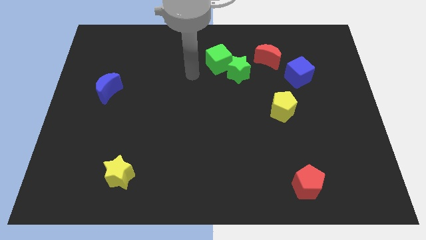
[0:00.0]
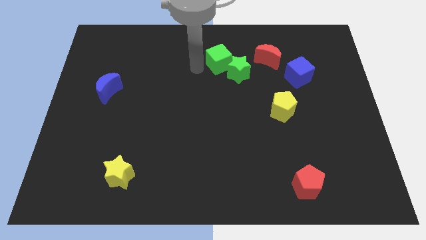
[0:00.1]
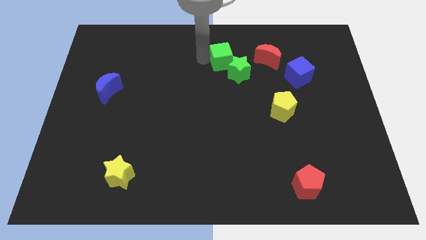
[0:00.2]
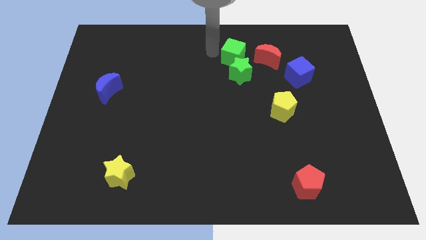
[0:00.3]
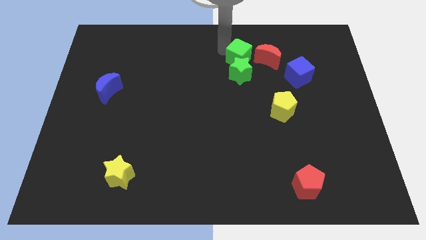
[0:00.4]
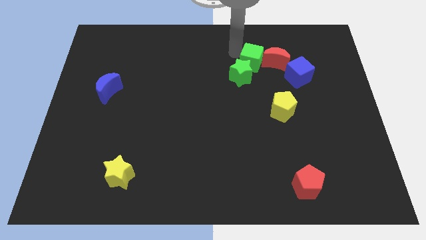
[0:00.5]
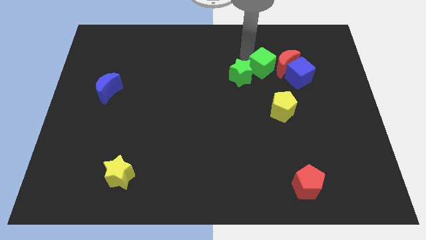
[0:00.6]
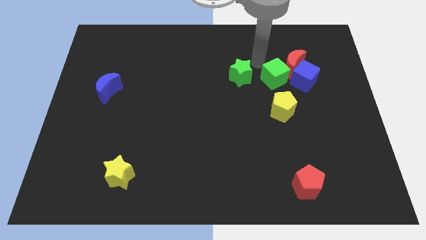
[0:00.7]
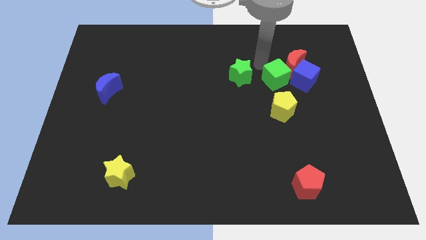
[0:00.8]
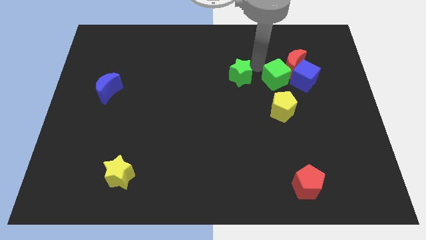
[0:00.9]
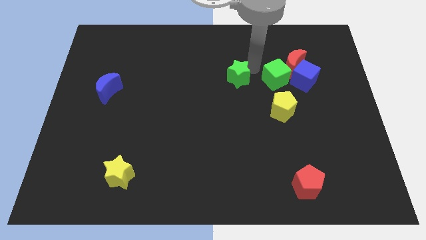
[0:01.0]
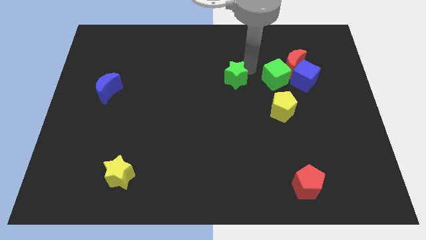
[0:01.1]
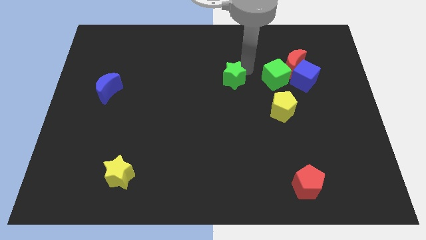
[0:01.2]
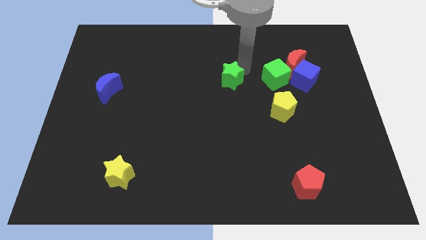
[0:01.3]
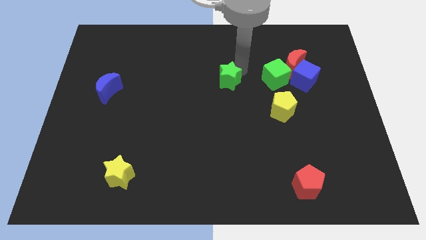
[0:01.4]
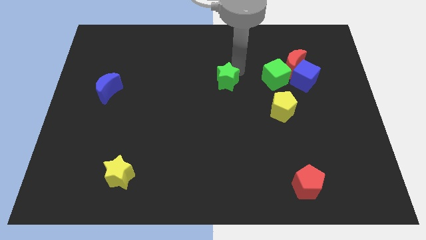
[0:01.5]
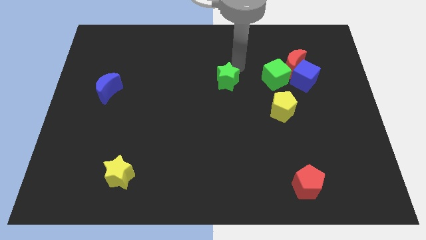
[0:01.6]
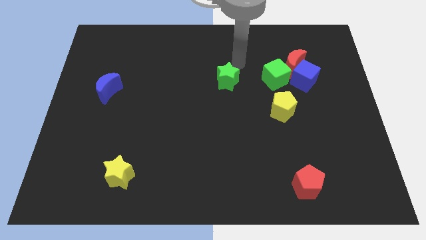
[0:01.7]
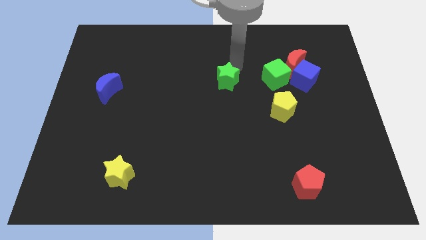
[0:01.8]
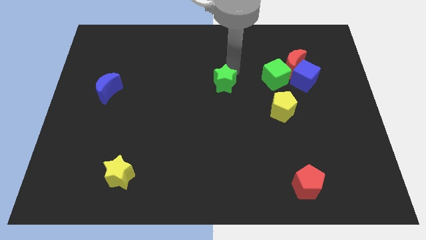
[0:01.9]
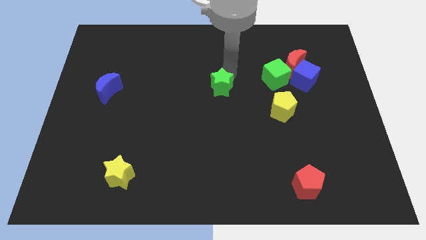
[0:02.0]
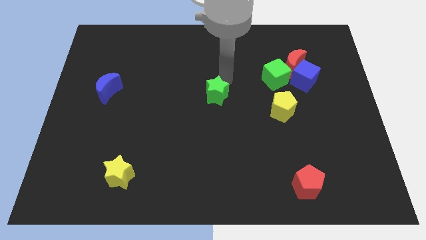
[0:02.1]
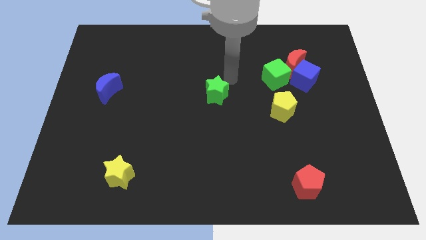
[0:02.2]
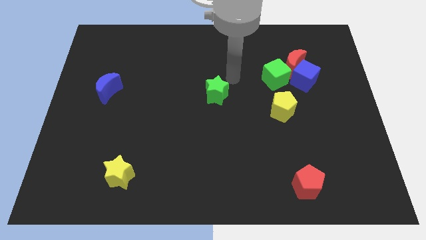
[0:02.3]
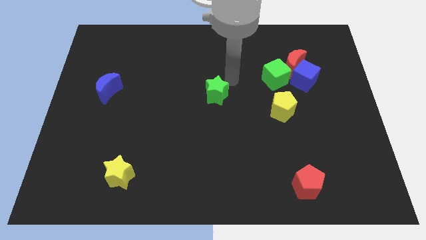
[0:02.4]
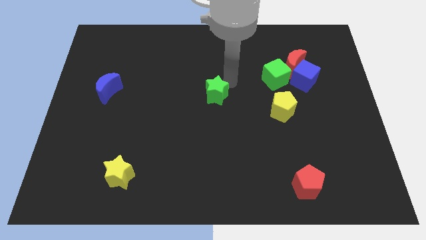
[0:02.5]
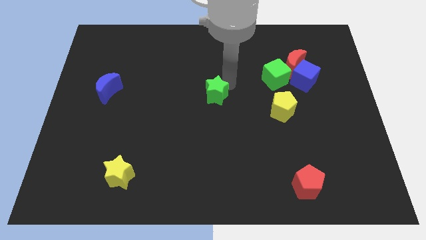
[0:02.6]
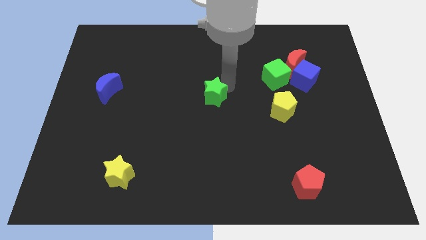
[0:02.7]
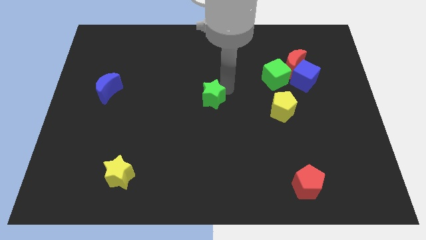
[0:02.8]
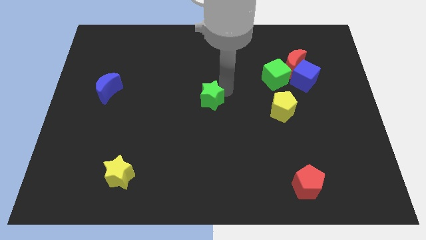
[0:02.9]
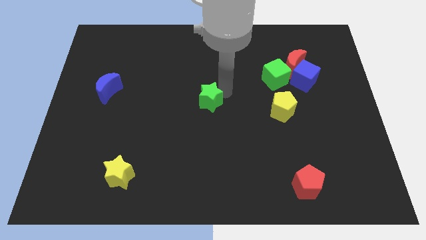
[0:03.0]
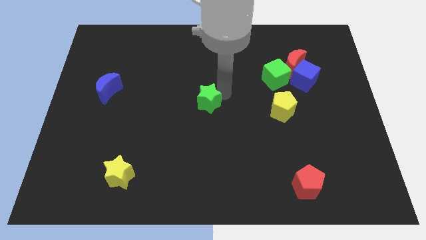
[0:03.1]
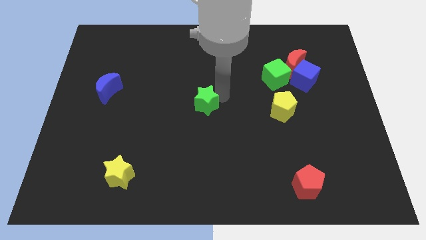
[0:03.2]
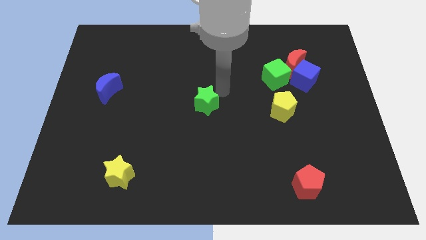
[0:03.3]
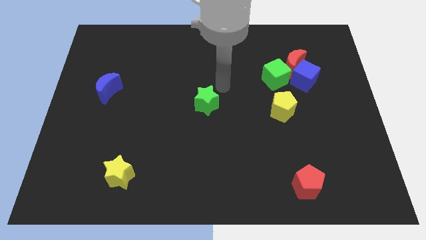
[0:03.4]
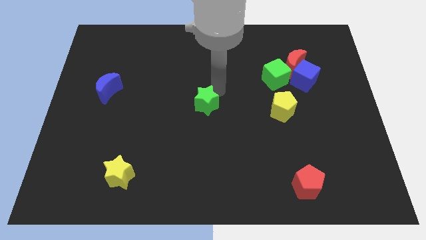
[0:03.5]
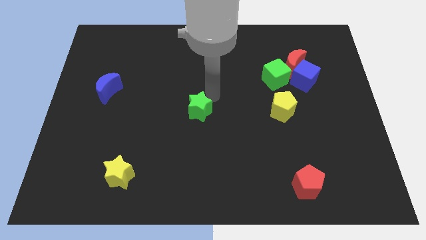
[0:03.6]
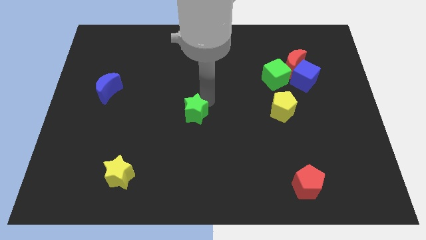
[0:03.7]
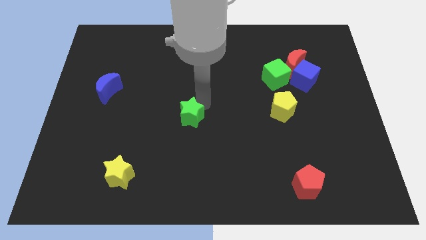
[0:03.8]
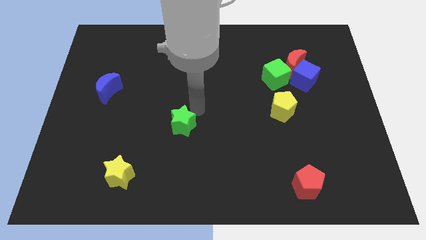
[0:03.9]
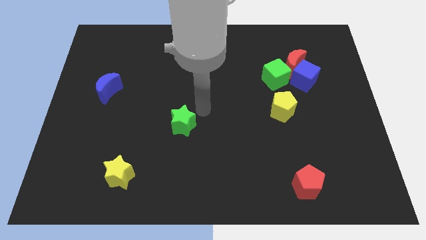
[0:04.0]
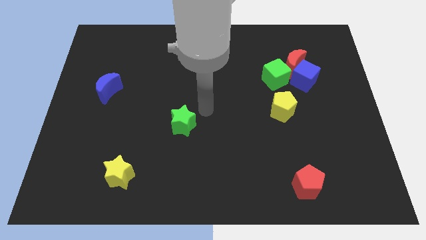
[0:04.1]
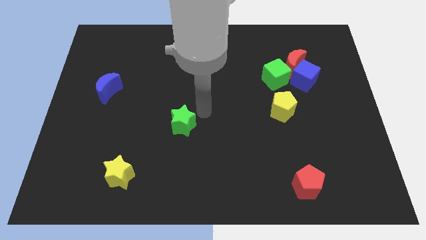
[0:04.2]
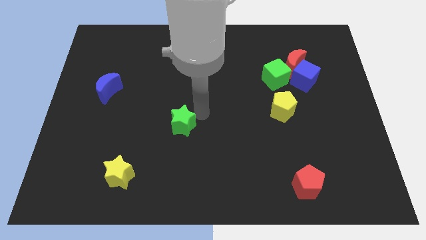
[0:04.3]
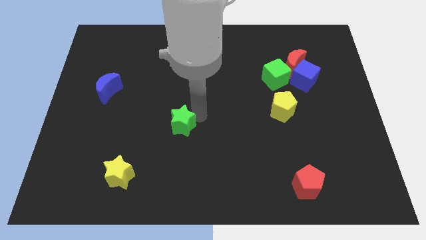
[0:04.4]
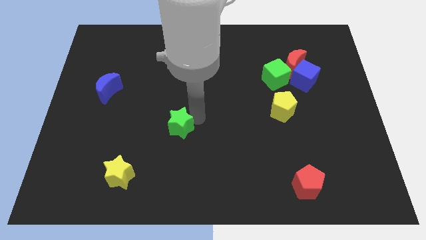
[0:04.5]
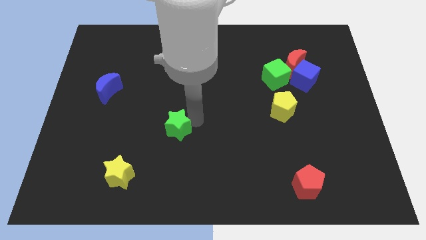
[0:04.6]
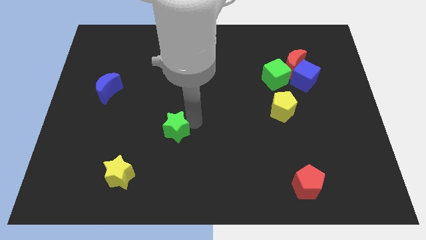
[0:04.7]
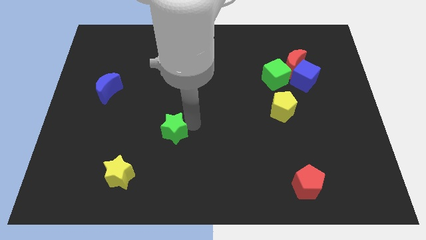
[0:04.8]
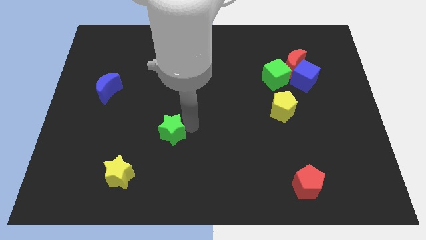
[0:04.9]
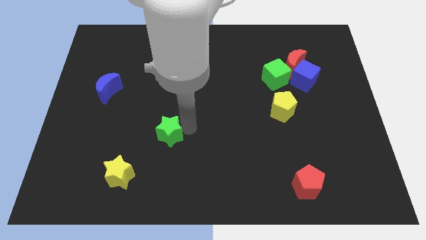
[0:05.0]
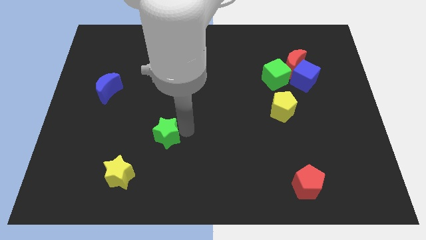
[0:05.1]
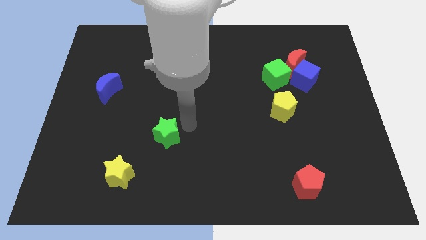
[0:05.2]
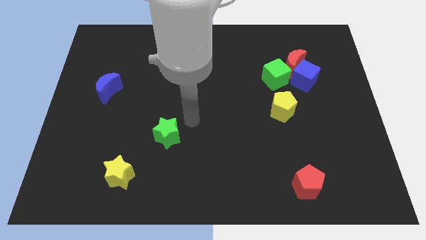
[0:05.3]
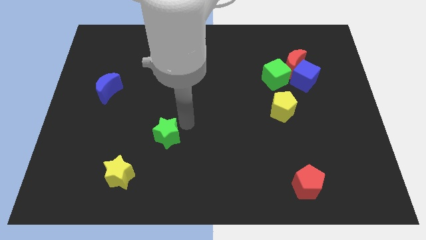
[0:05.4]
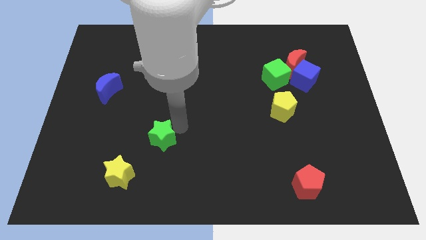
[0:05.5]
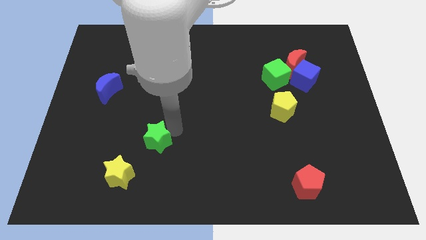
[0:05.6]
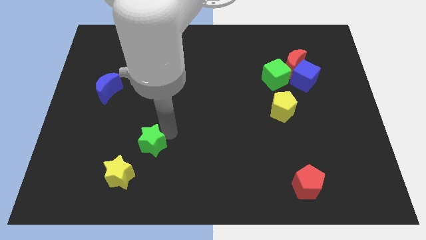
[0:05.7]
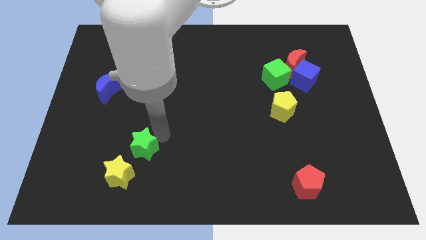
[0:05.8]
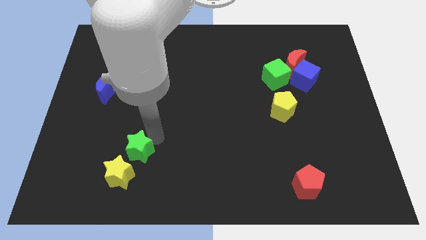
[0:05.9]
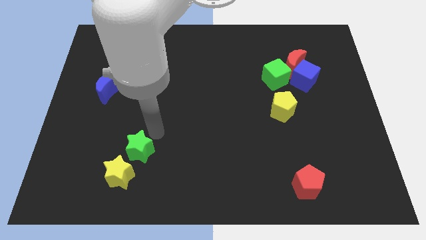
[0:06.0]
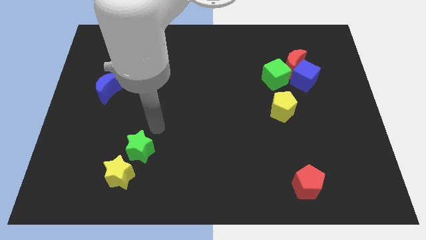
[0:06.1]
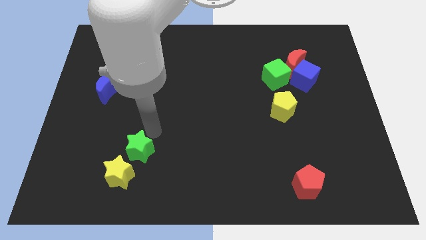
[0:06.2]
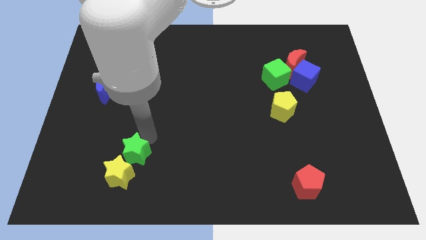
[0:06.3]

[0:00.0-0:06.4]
push the green star towards the yellow star
